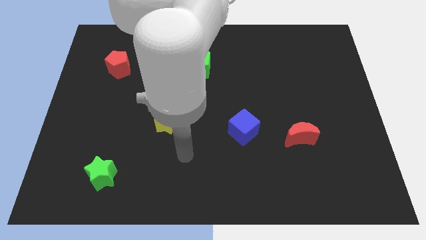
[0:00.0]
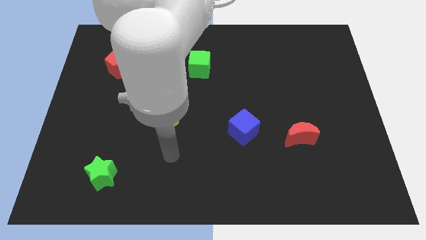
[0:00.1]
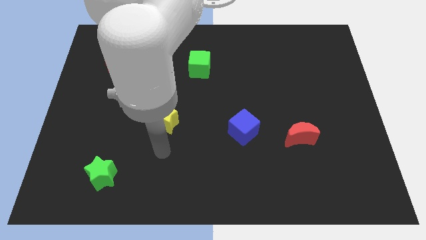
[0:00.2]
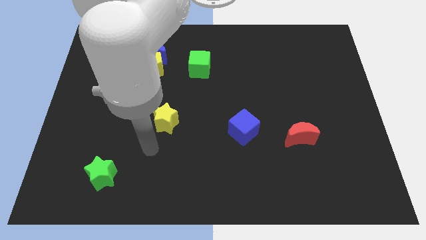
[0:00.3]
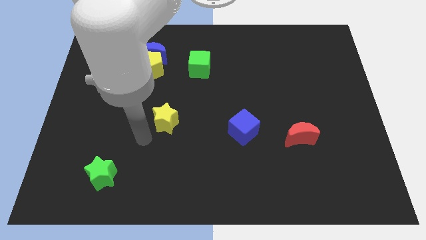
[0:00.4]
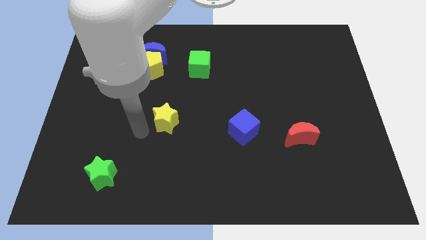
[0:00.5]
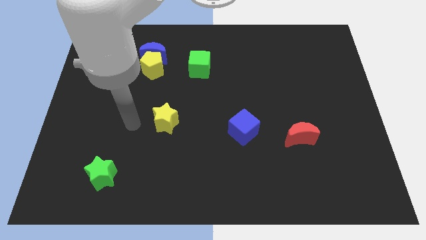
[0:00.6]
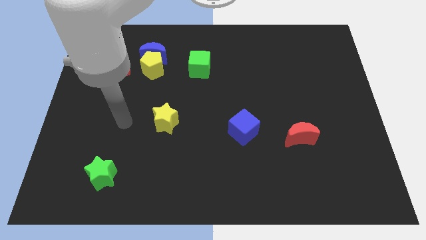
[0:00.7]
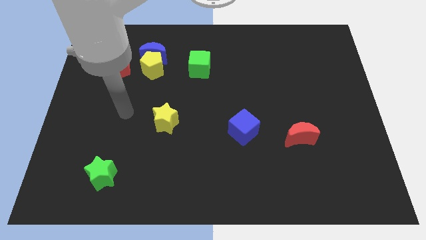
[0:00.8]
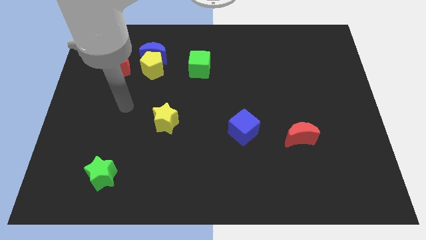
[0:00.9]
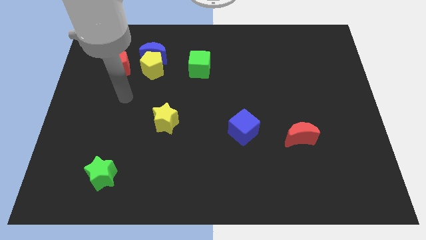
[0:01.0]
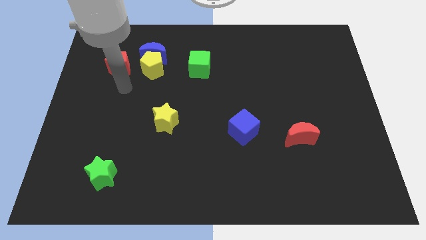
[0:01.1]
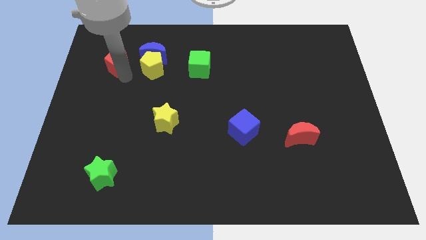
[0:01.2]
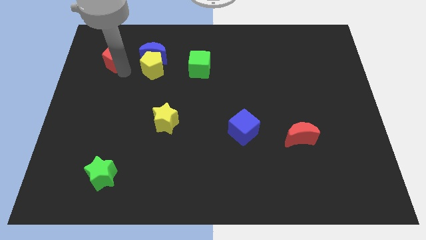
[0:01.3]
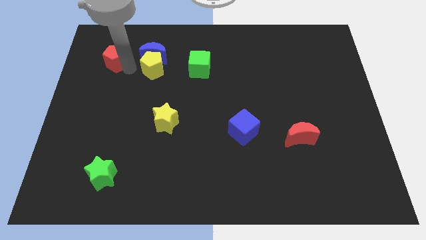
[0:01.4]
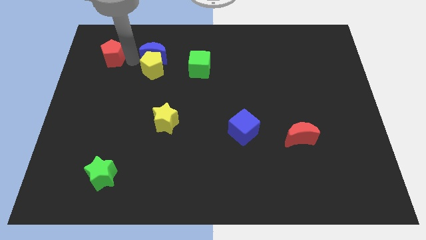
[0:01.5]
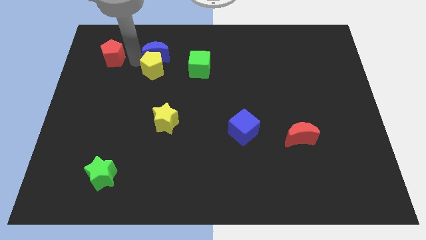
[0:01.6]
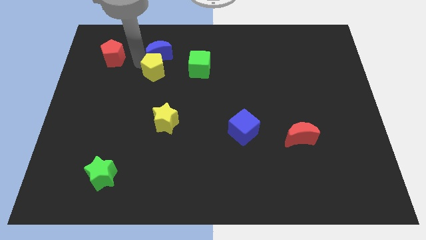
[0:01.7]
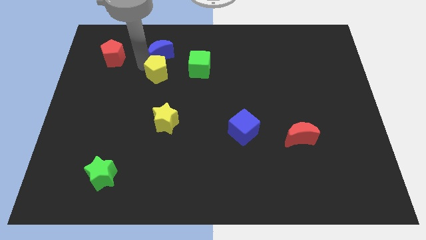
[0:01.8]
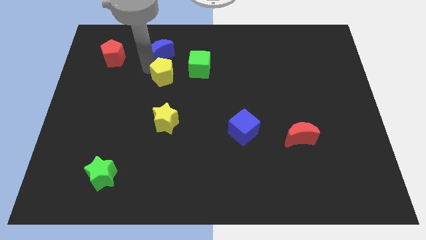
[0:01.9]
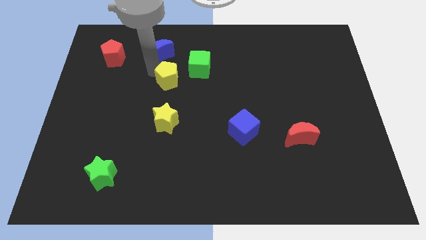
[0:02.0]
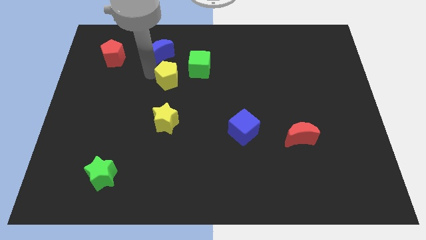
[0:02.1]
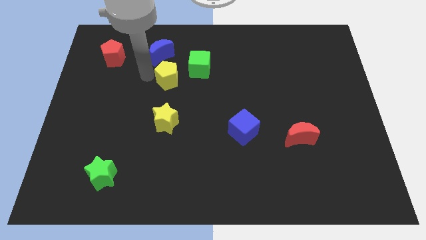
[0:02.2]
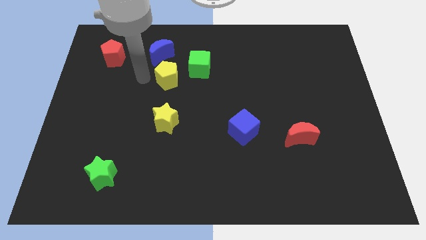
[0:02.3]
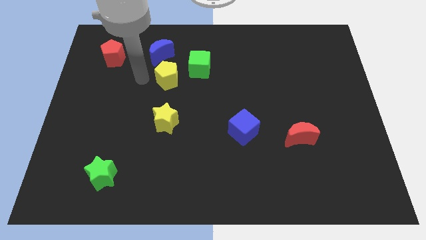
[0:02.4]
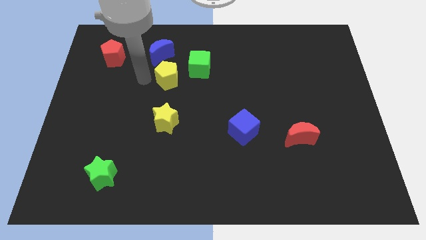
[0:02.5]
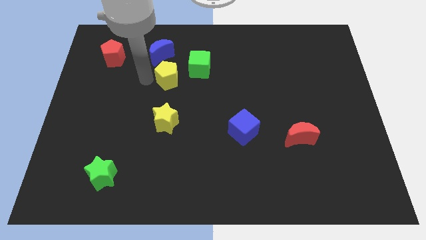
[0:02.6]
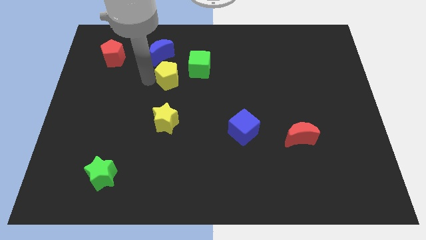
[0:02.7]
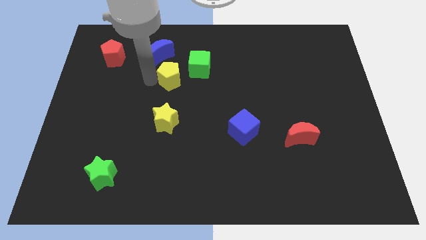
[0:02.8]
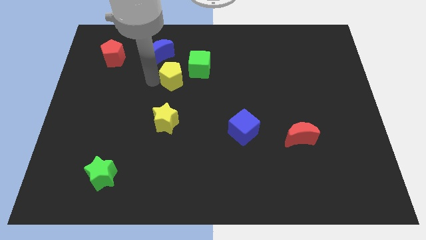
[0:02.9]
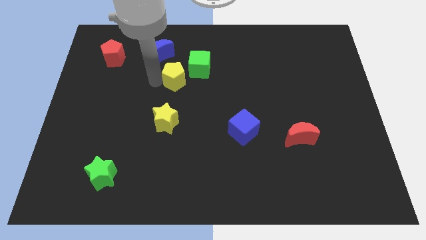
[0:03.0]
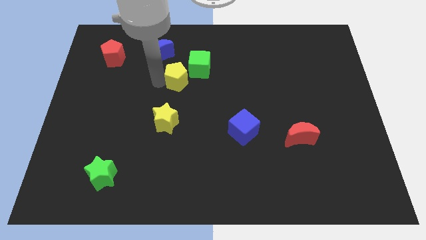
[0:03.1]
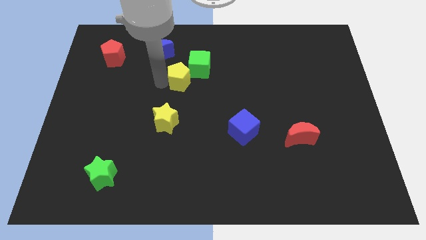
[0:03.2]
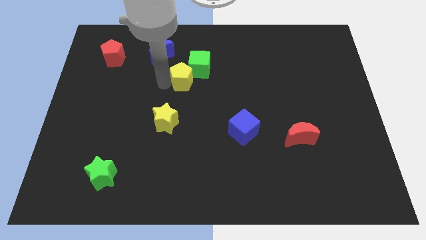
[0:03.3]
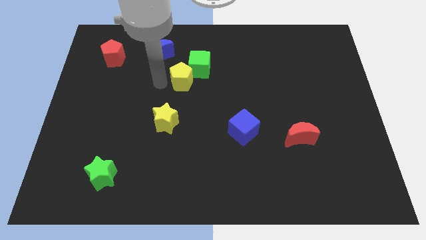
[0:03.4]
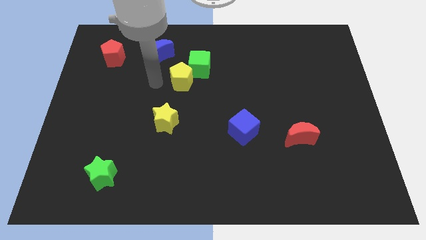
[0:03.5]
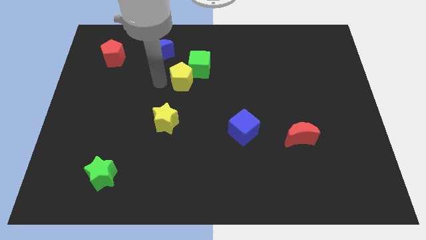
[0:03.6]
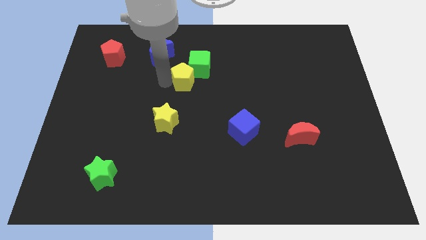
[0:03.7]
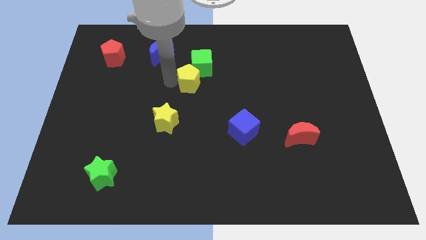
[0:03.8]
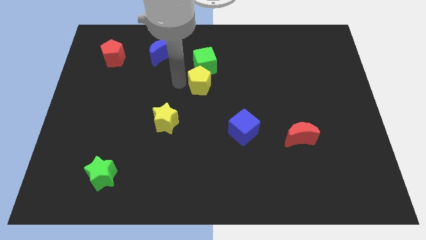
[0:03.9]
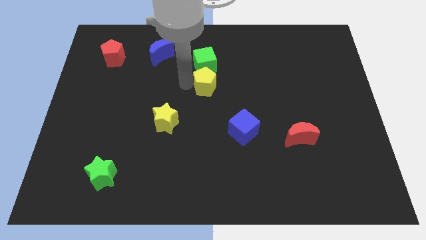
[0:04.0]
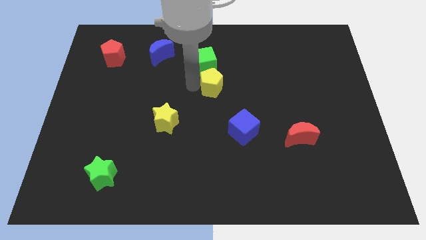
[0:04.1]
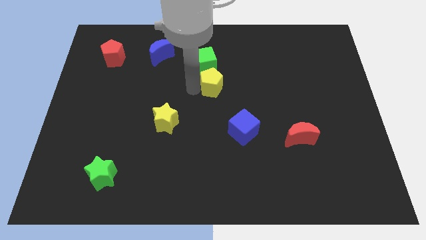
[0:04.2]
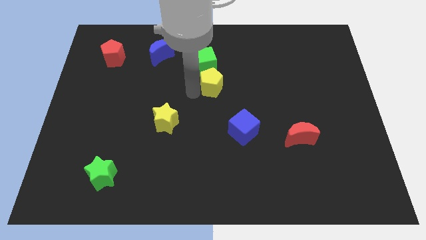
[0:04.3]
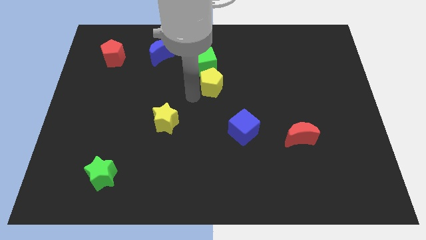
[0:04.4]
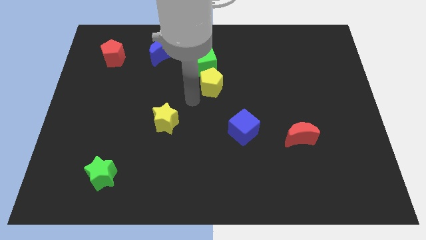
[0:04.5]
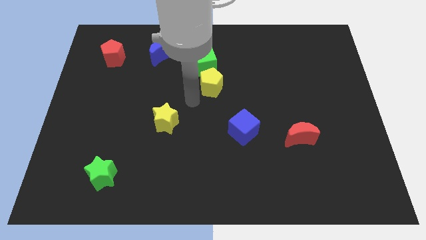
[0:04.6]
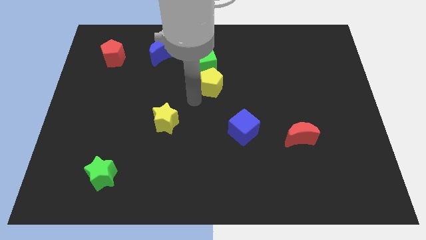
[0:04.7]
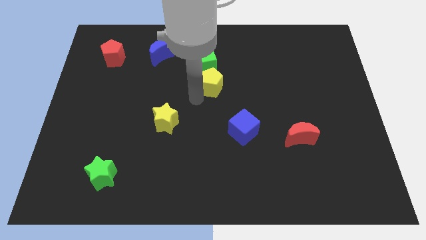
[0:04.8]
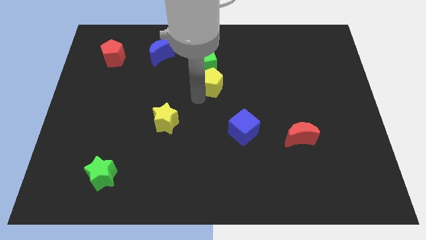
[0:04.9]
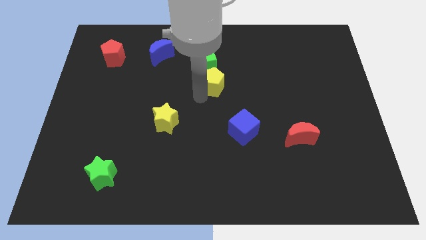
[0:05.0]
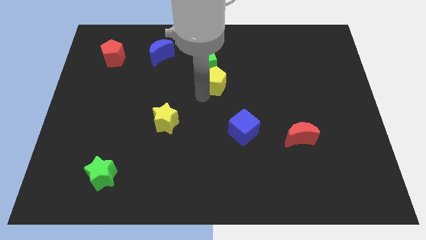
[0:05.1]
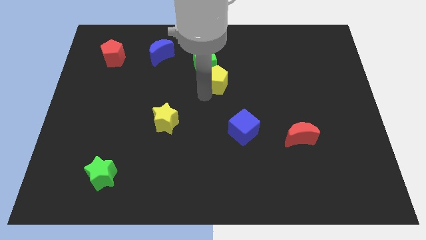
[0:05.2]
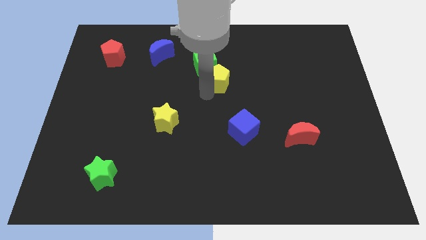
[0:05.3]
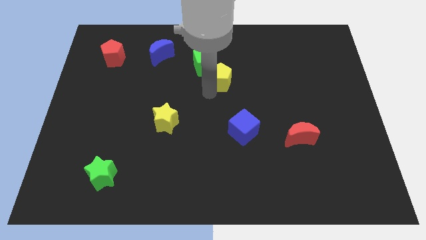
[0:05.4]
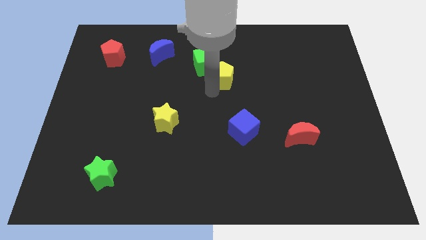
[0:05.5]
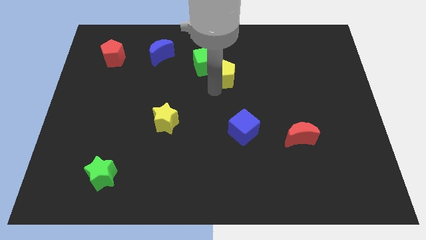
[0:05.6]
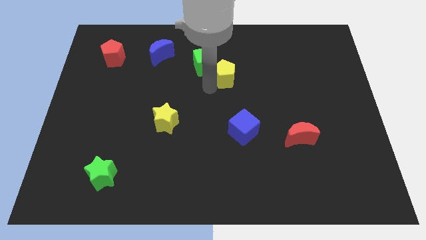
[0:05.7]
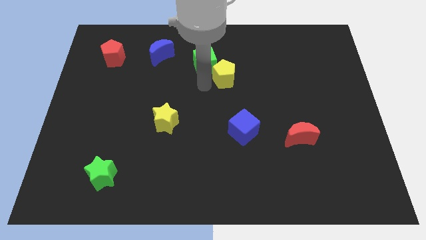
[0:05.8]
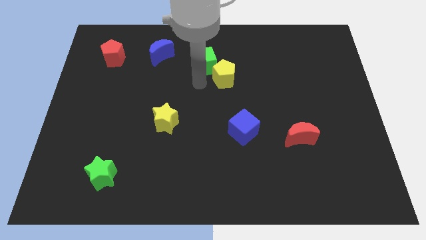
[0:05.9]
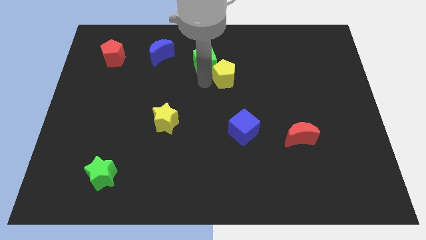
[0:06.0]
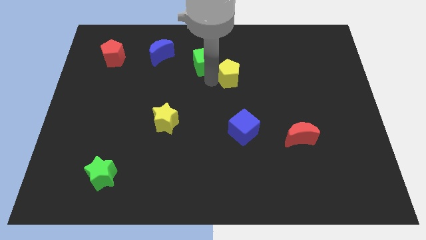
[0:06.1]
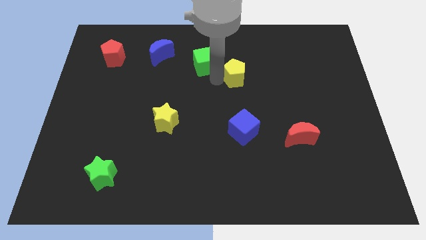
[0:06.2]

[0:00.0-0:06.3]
move the yellow pentagon to the right

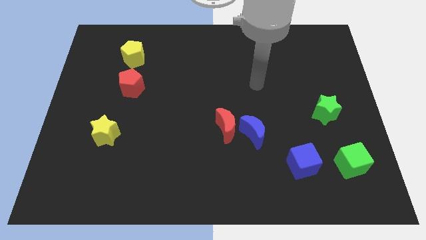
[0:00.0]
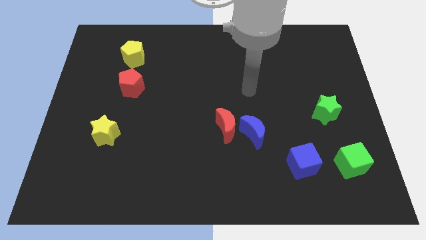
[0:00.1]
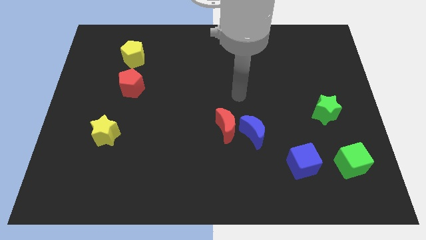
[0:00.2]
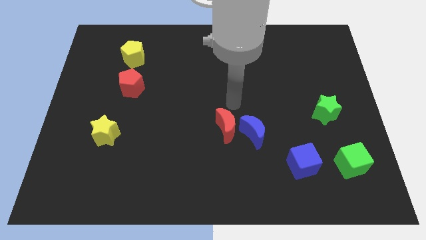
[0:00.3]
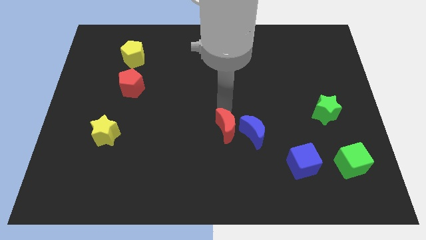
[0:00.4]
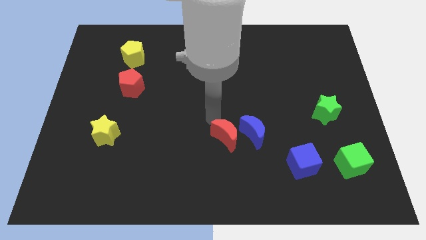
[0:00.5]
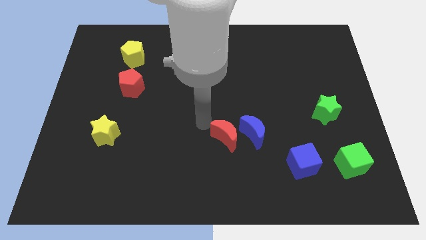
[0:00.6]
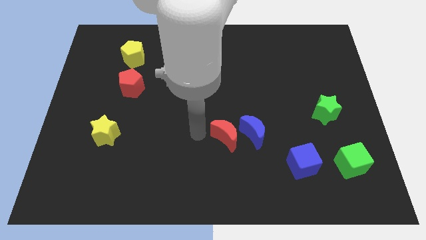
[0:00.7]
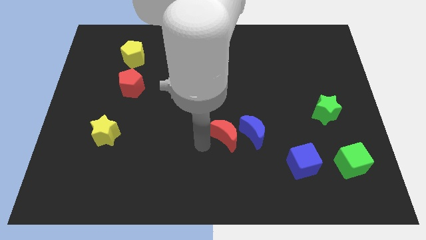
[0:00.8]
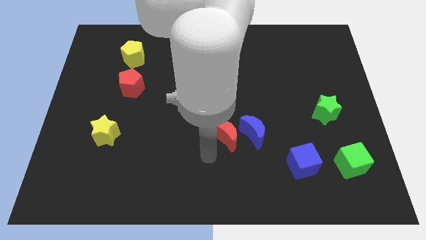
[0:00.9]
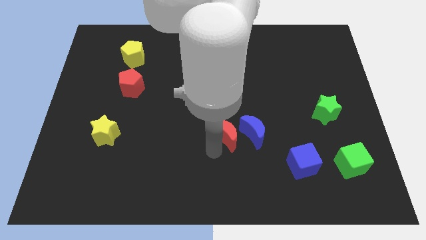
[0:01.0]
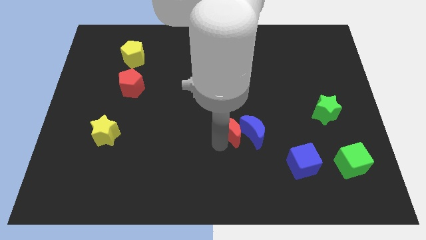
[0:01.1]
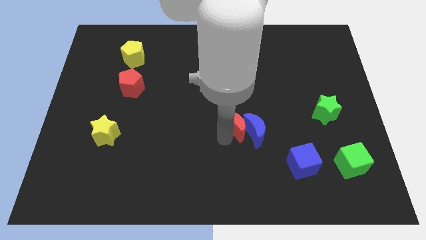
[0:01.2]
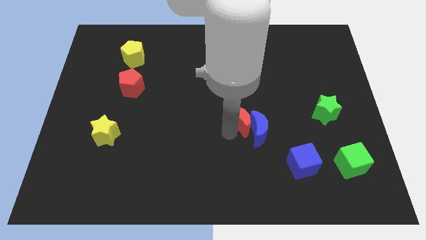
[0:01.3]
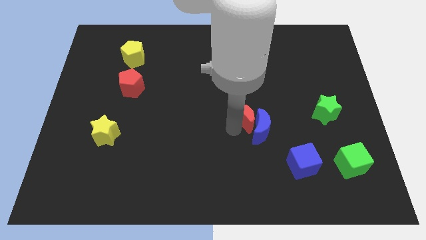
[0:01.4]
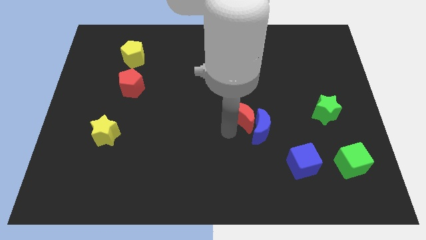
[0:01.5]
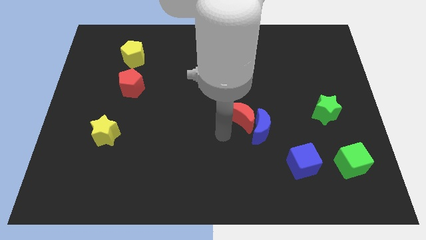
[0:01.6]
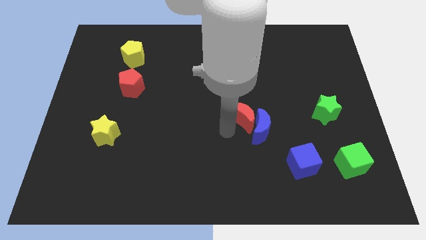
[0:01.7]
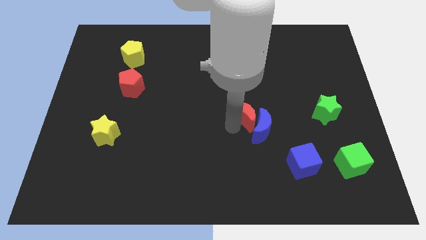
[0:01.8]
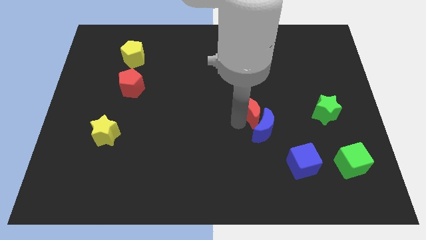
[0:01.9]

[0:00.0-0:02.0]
move the red moon up and then right a little

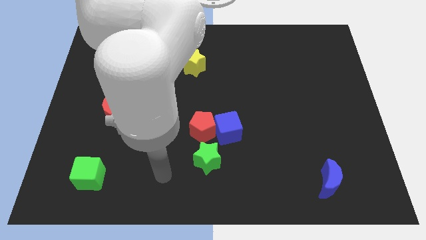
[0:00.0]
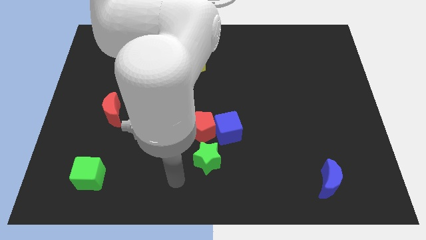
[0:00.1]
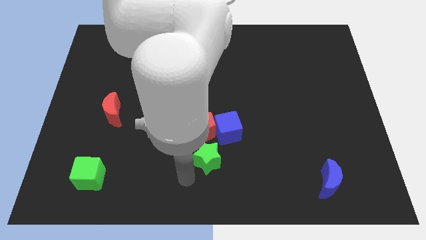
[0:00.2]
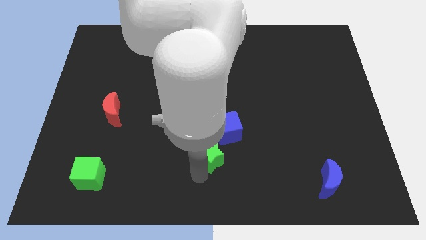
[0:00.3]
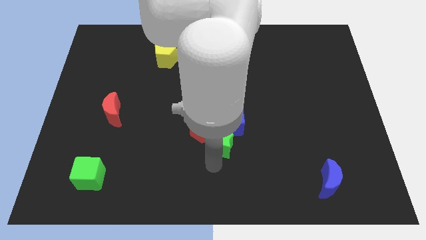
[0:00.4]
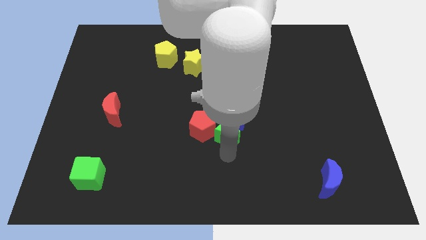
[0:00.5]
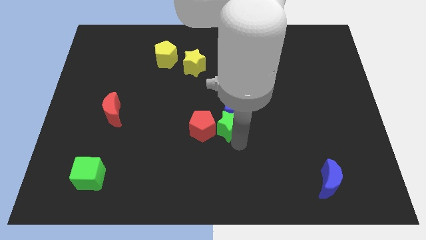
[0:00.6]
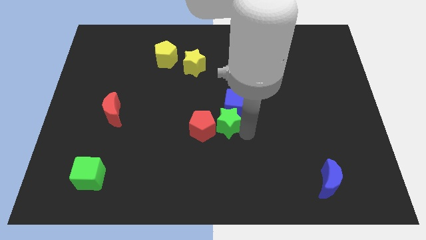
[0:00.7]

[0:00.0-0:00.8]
push the blue cube a little bit upwards
